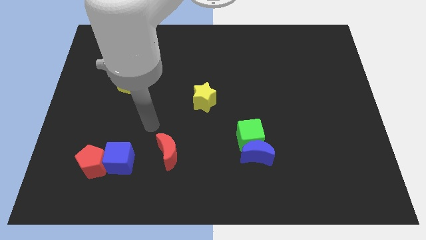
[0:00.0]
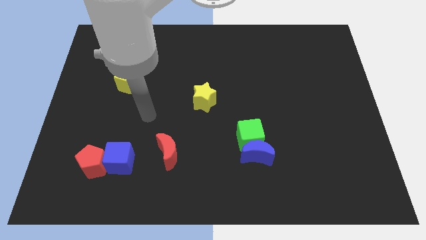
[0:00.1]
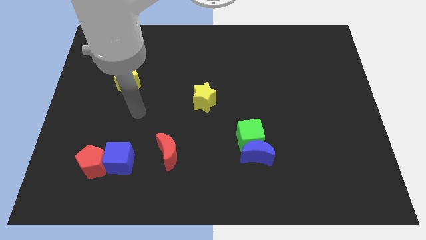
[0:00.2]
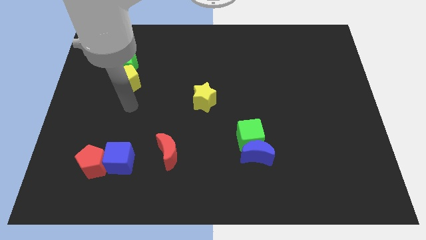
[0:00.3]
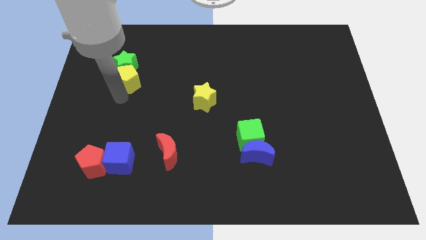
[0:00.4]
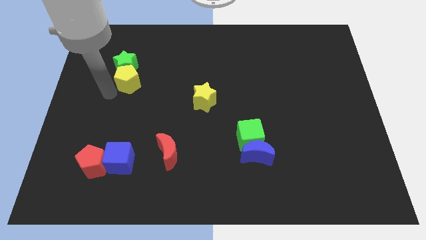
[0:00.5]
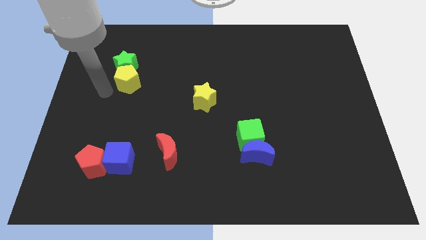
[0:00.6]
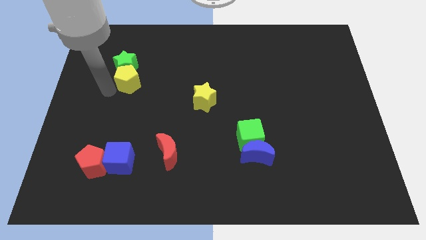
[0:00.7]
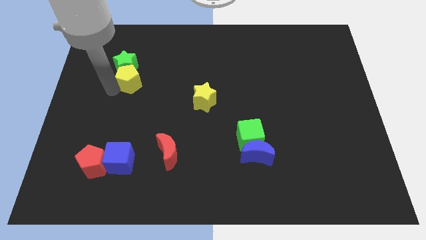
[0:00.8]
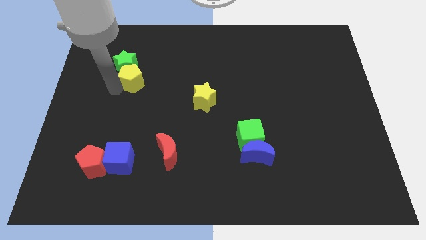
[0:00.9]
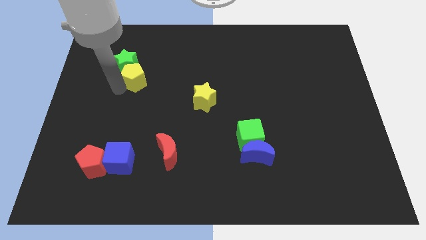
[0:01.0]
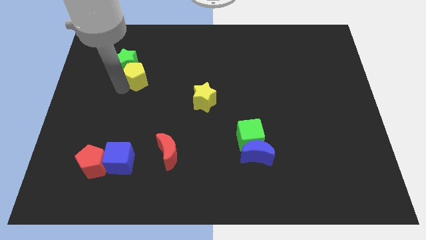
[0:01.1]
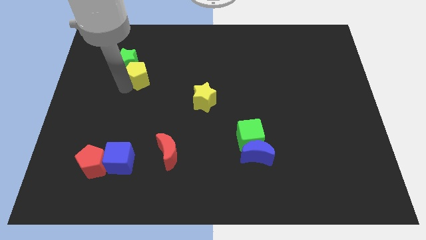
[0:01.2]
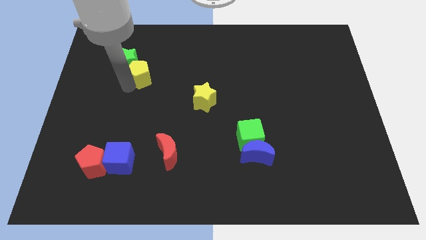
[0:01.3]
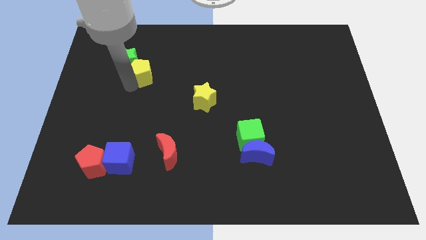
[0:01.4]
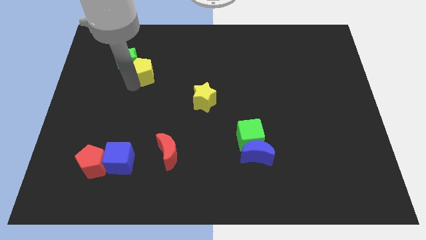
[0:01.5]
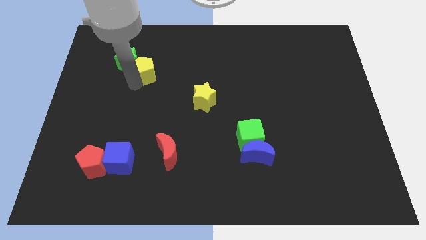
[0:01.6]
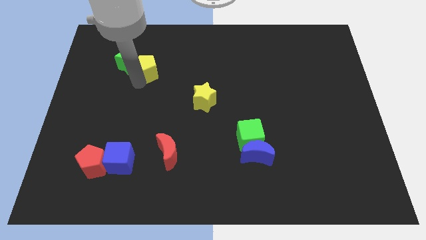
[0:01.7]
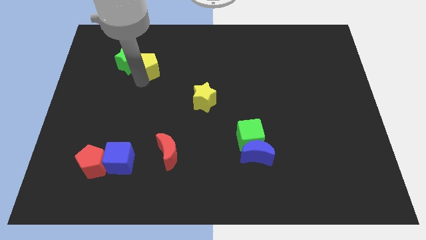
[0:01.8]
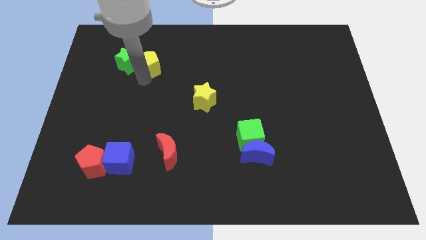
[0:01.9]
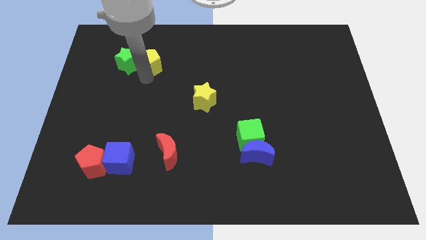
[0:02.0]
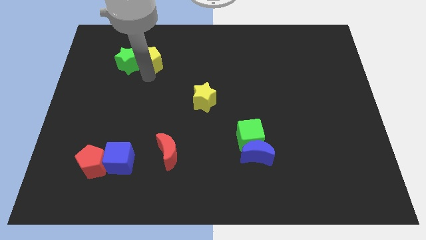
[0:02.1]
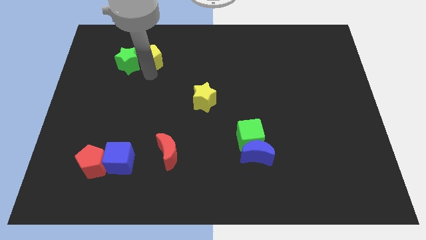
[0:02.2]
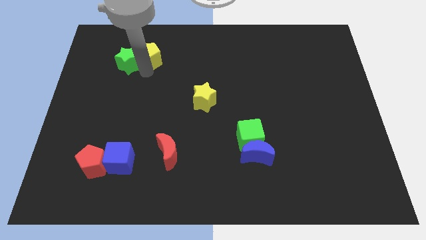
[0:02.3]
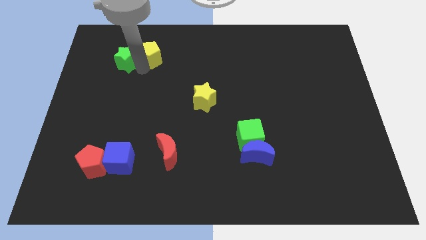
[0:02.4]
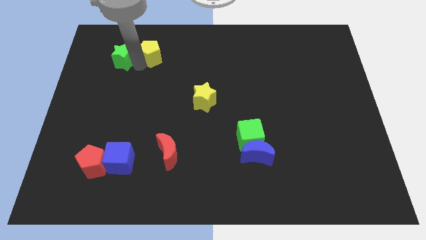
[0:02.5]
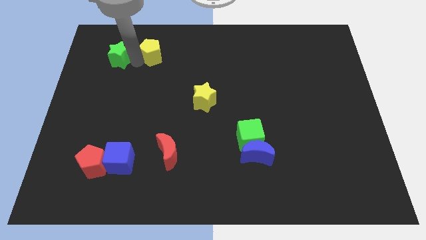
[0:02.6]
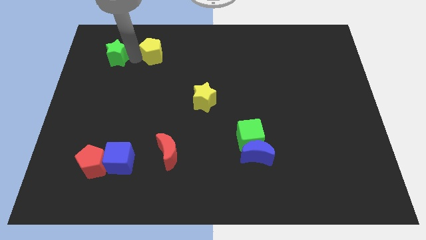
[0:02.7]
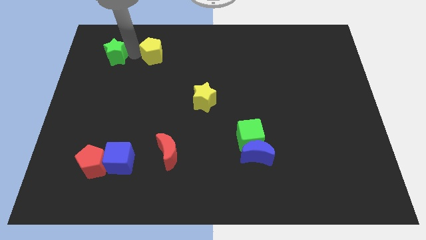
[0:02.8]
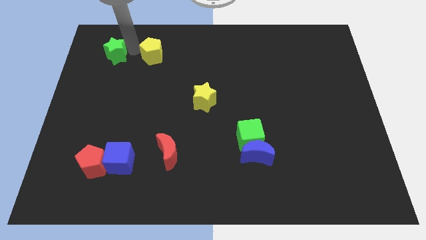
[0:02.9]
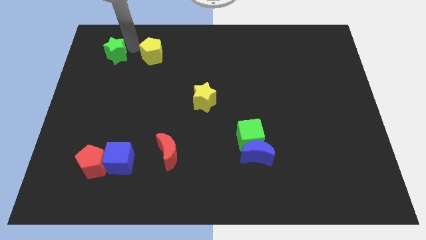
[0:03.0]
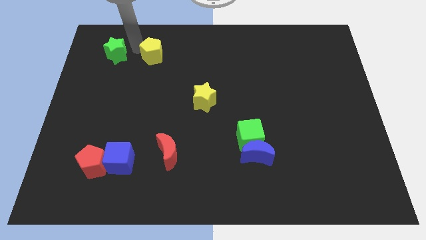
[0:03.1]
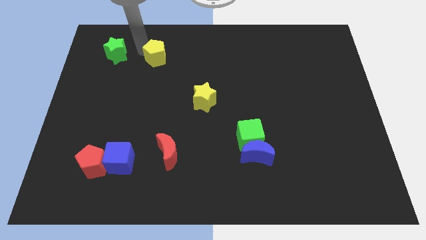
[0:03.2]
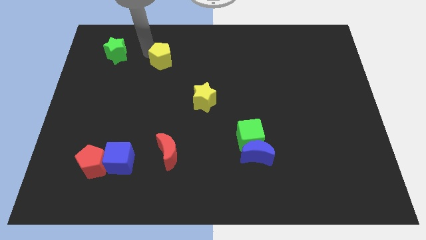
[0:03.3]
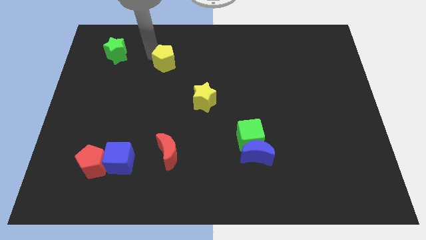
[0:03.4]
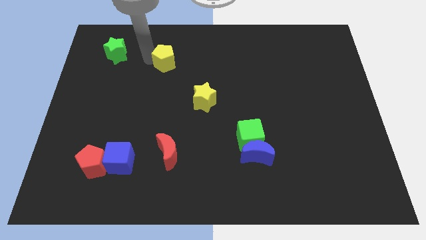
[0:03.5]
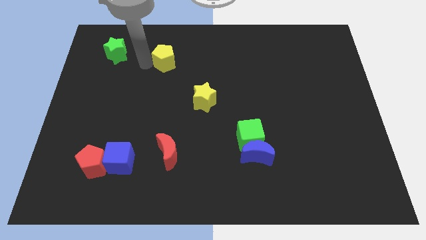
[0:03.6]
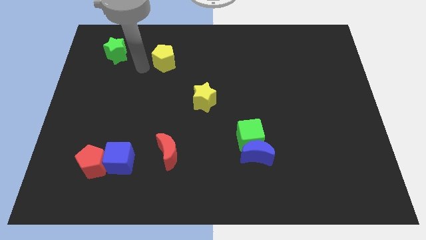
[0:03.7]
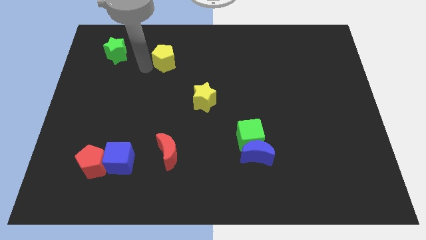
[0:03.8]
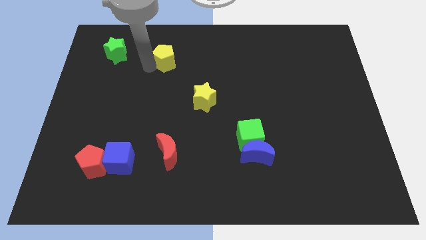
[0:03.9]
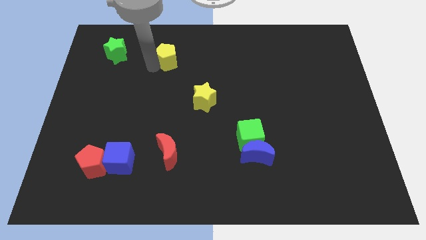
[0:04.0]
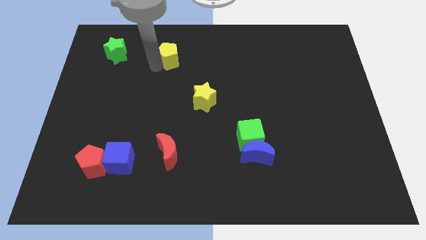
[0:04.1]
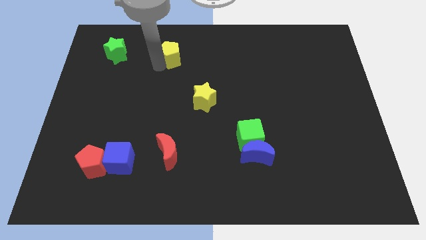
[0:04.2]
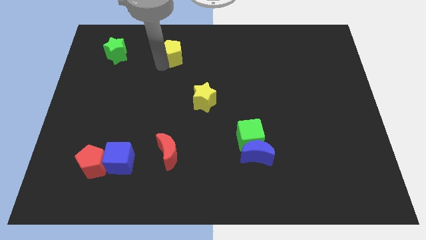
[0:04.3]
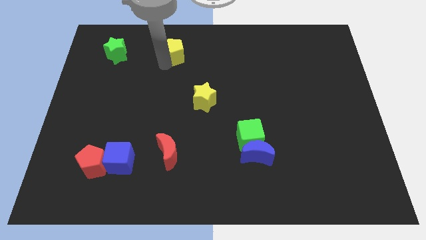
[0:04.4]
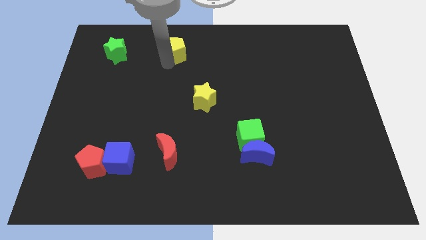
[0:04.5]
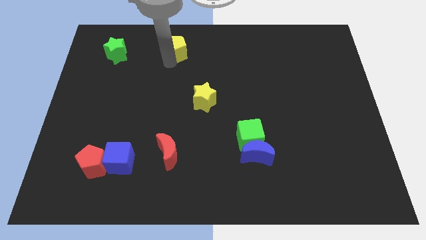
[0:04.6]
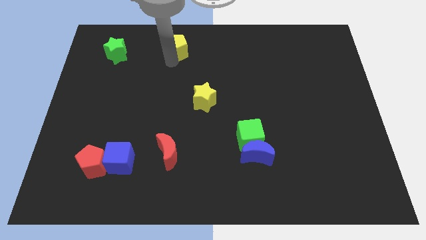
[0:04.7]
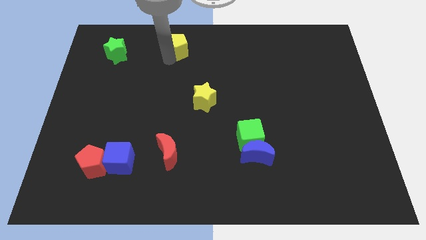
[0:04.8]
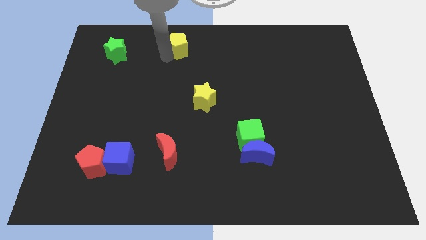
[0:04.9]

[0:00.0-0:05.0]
move the yellow pentagon to the top side

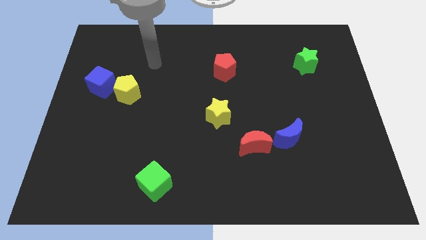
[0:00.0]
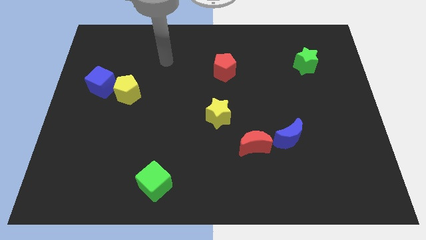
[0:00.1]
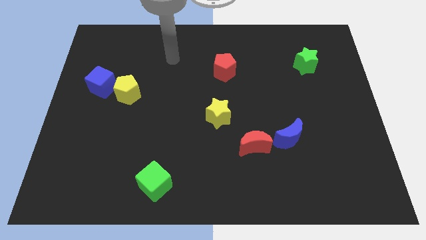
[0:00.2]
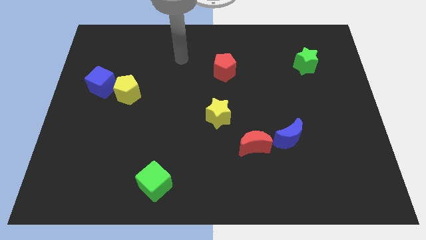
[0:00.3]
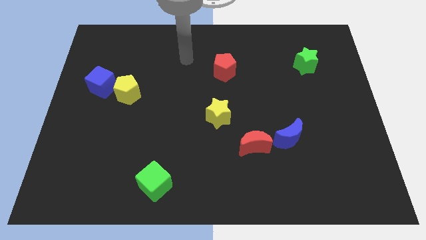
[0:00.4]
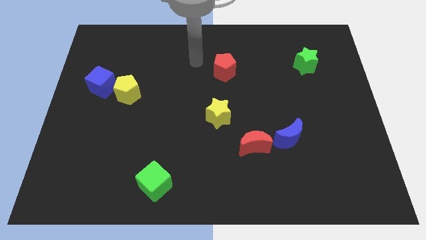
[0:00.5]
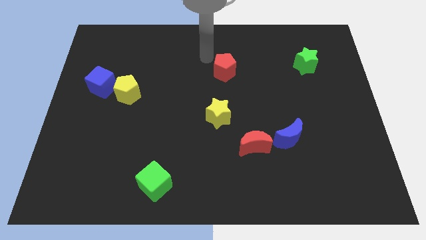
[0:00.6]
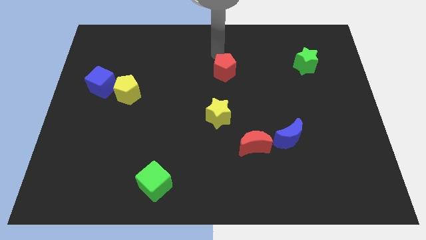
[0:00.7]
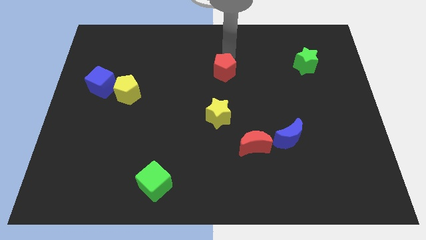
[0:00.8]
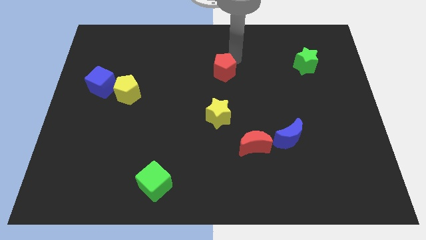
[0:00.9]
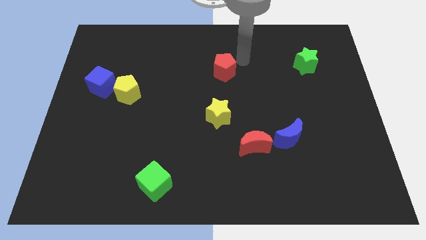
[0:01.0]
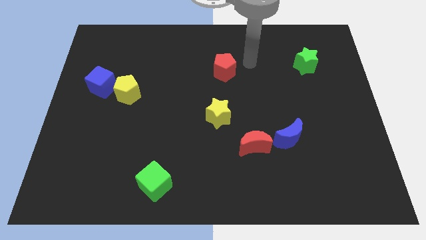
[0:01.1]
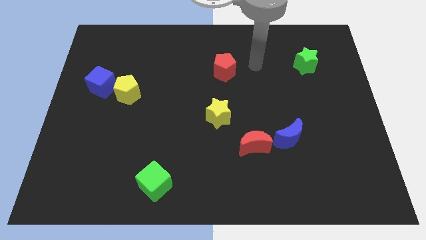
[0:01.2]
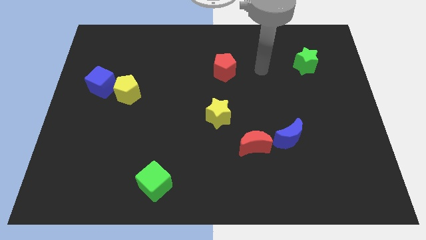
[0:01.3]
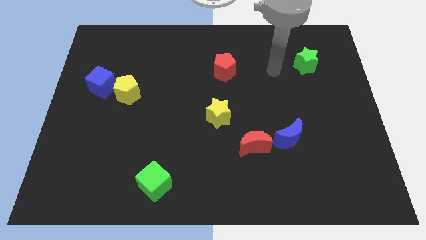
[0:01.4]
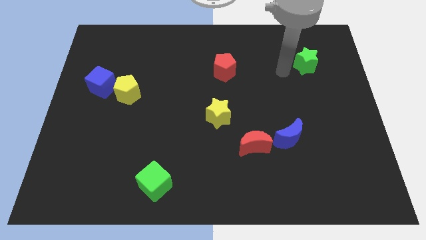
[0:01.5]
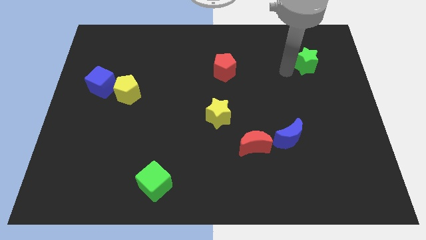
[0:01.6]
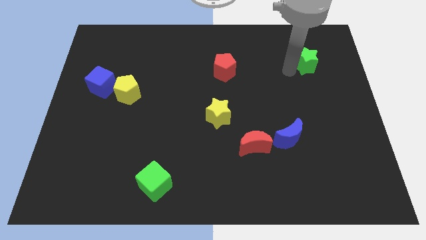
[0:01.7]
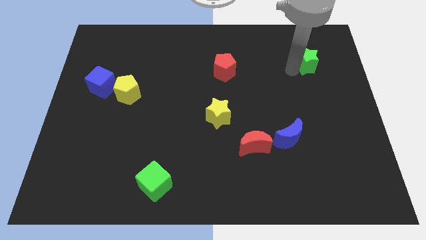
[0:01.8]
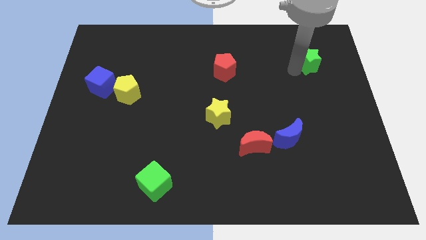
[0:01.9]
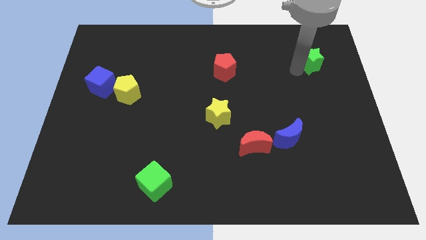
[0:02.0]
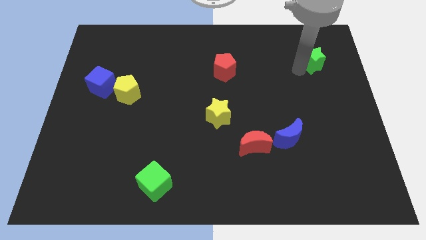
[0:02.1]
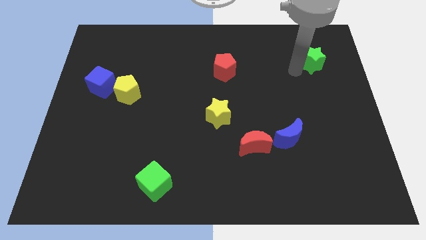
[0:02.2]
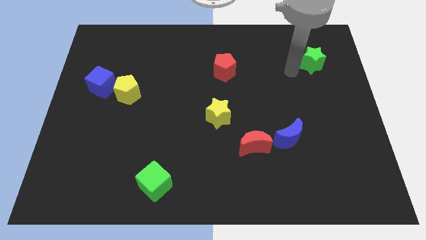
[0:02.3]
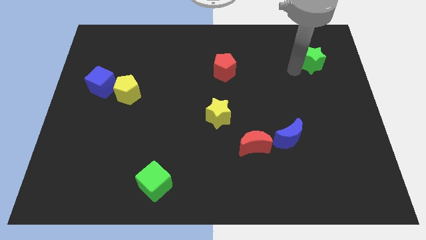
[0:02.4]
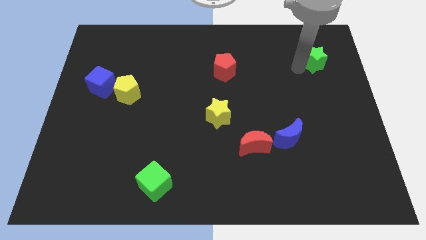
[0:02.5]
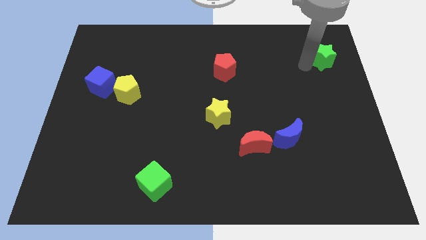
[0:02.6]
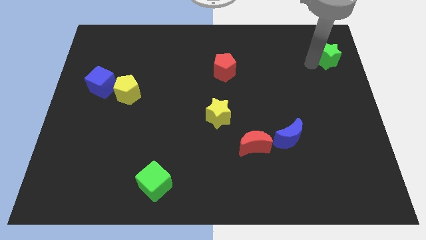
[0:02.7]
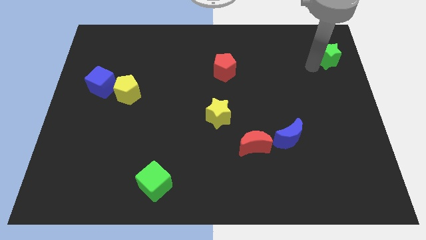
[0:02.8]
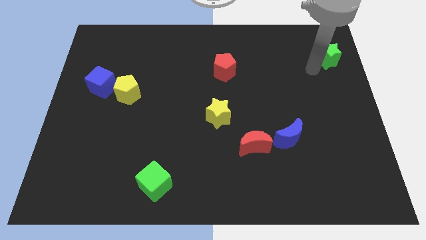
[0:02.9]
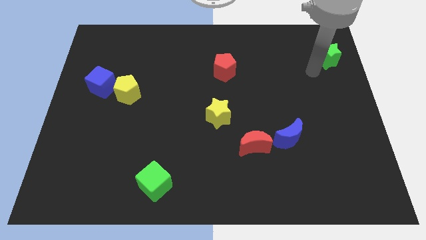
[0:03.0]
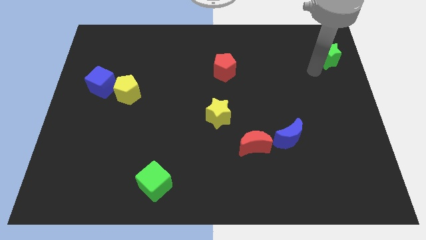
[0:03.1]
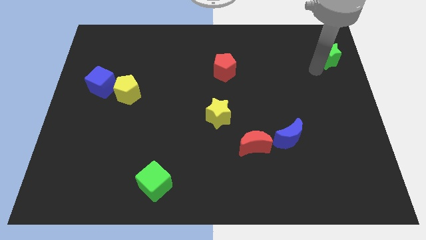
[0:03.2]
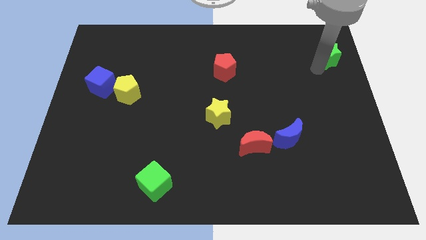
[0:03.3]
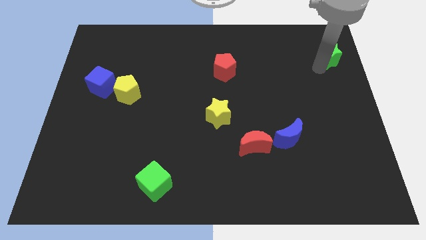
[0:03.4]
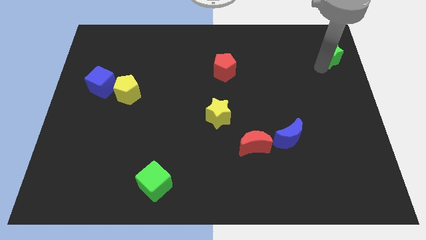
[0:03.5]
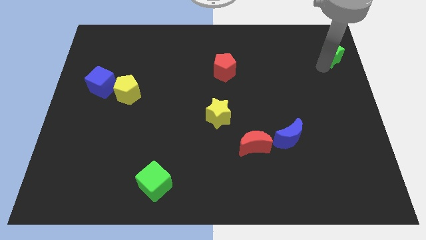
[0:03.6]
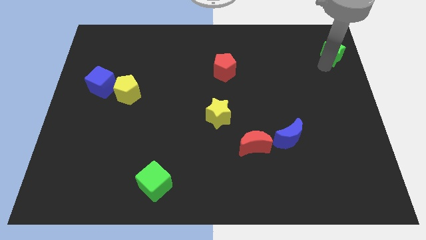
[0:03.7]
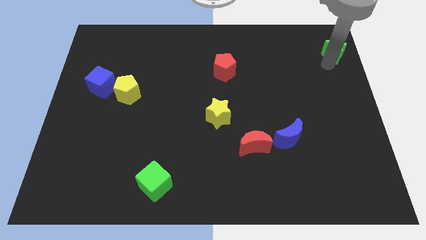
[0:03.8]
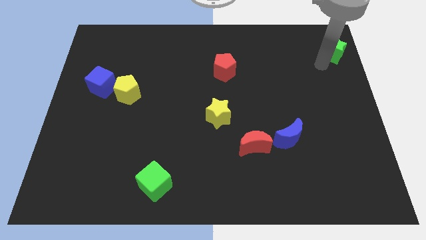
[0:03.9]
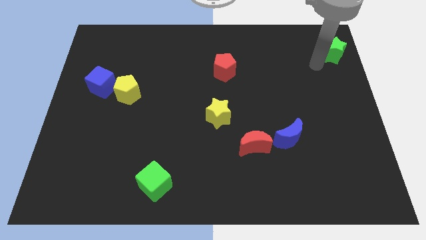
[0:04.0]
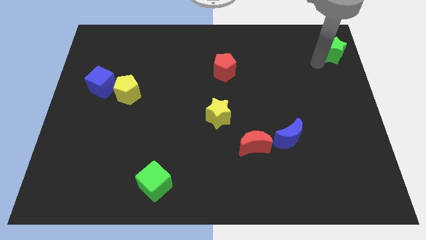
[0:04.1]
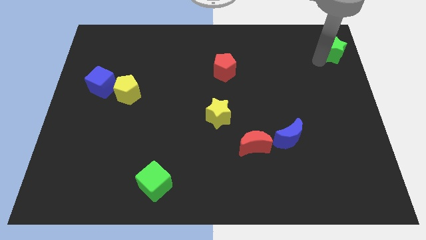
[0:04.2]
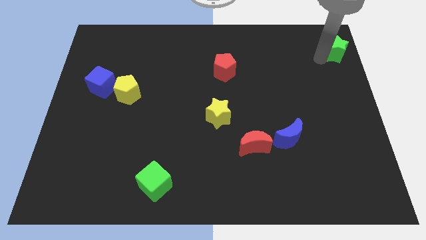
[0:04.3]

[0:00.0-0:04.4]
put the green star to the top right of the board
